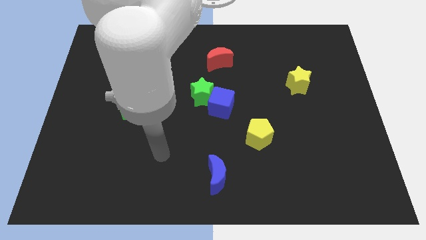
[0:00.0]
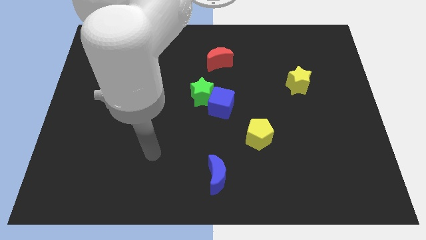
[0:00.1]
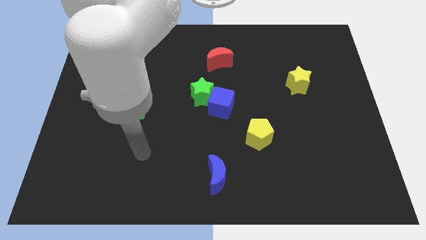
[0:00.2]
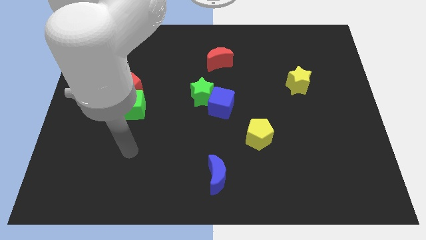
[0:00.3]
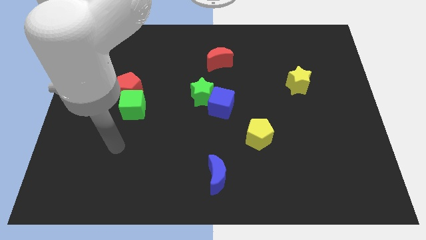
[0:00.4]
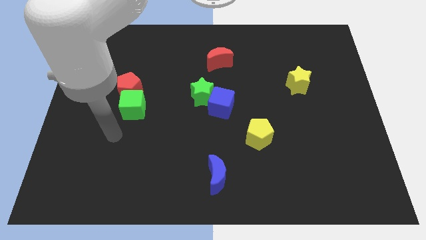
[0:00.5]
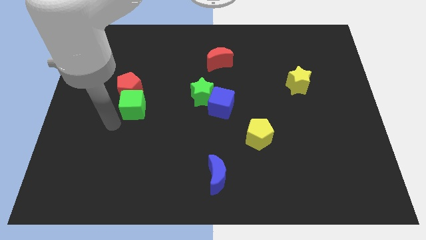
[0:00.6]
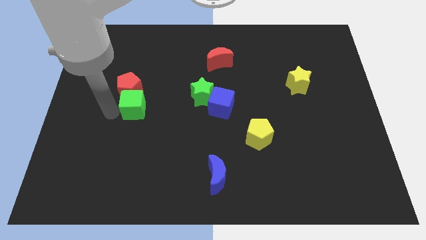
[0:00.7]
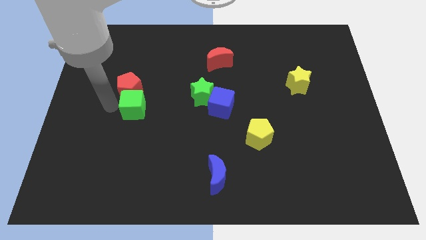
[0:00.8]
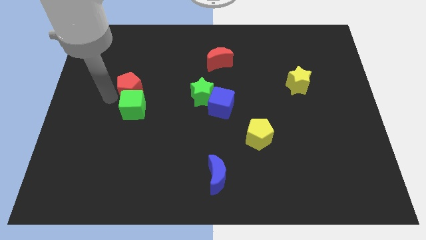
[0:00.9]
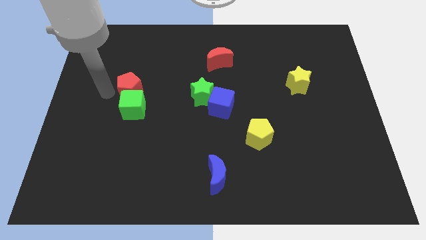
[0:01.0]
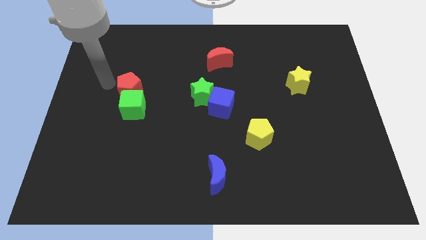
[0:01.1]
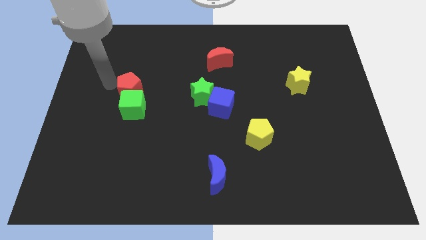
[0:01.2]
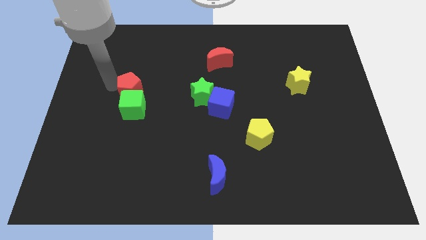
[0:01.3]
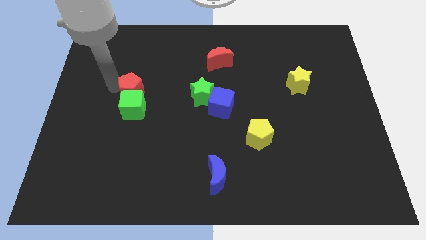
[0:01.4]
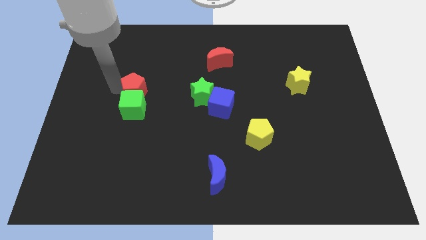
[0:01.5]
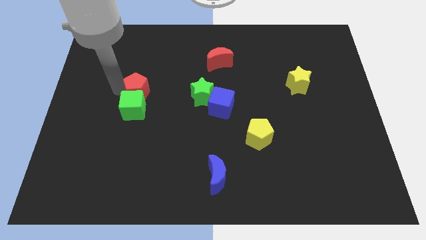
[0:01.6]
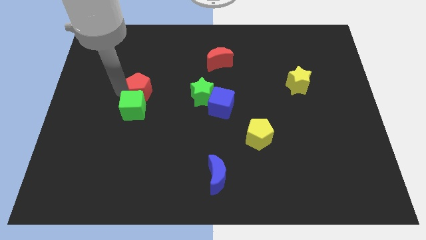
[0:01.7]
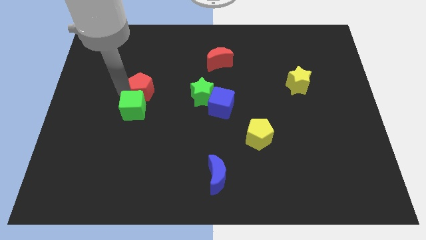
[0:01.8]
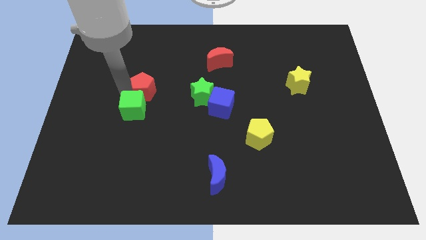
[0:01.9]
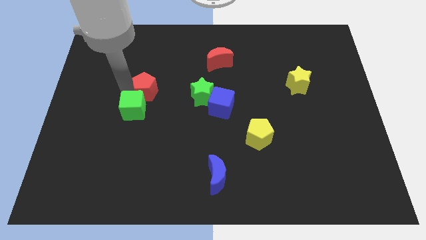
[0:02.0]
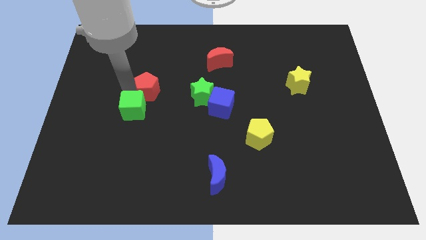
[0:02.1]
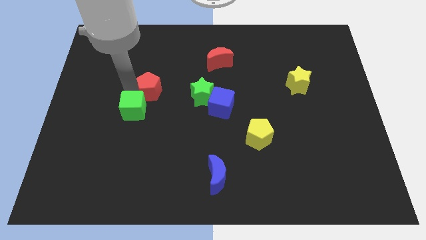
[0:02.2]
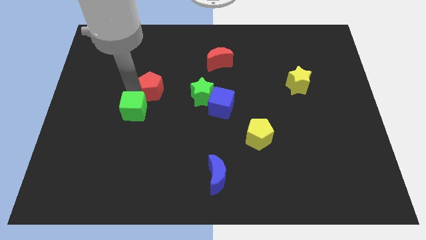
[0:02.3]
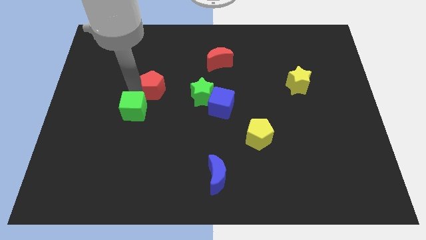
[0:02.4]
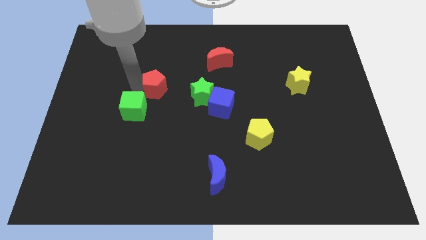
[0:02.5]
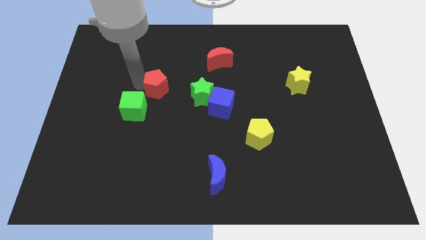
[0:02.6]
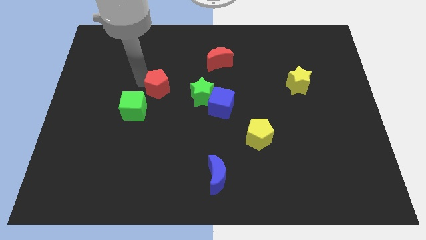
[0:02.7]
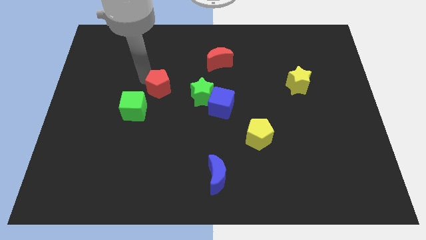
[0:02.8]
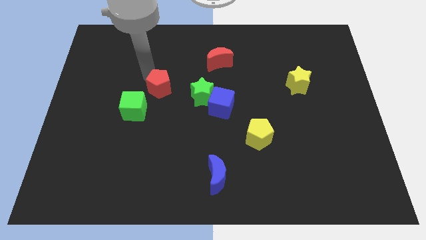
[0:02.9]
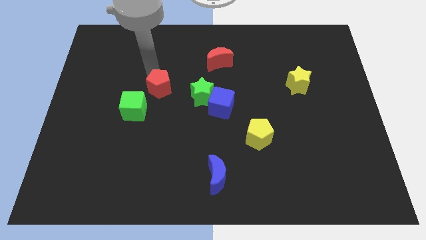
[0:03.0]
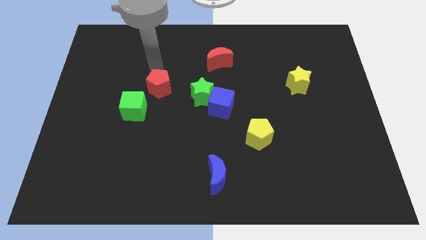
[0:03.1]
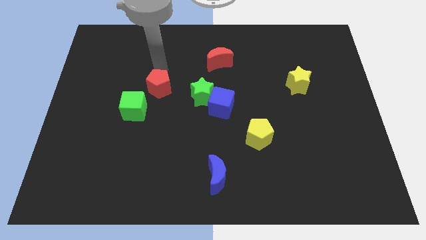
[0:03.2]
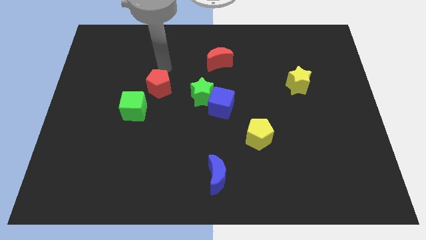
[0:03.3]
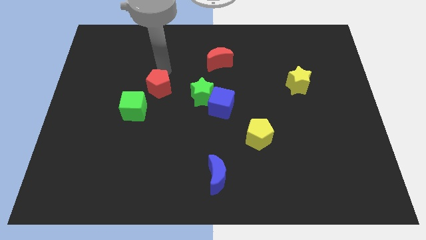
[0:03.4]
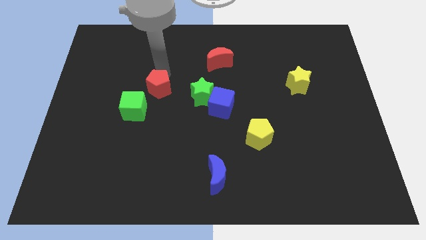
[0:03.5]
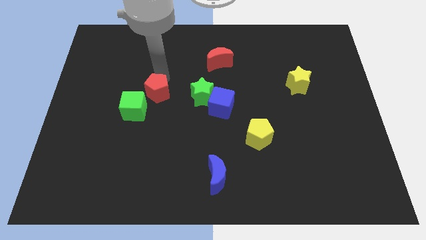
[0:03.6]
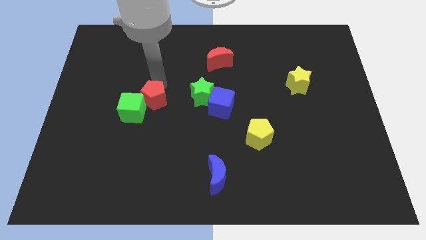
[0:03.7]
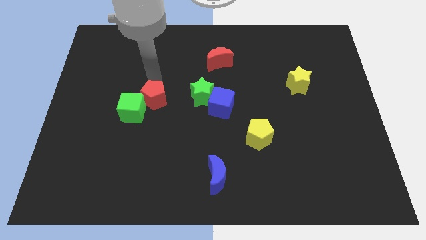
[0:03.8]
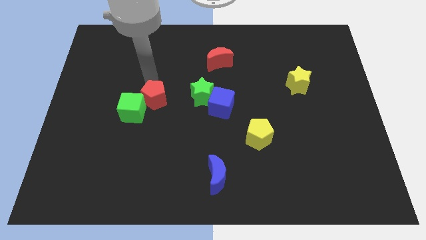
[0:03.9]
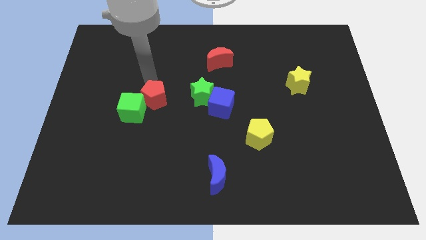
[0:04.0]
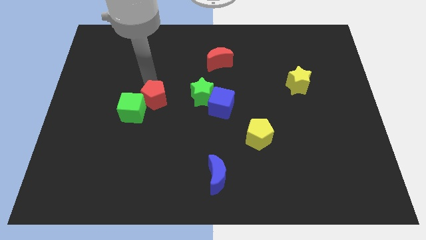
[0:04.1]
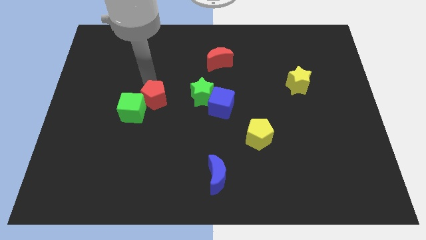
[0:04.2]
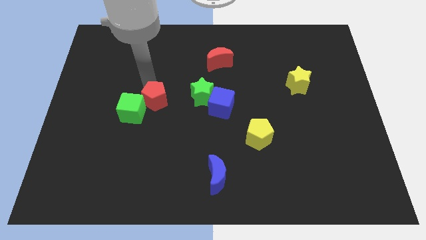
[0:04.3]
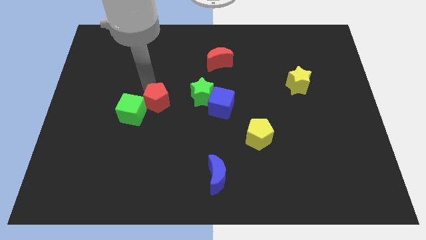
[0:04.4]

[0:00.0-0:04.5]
slide the red pentagon downwards and right diagonally a little bit

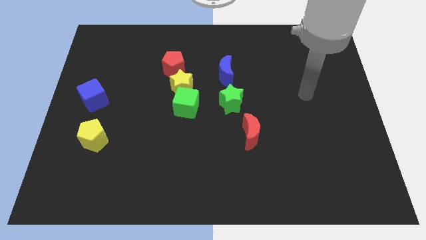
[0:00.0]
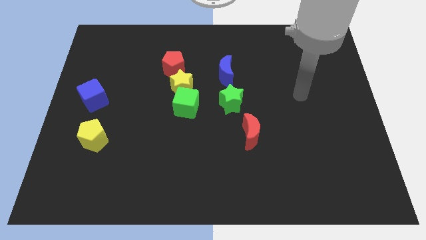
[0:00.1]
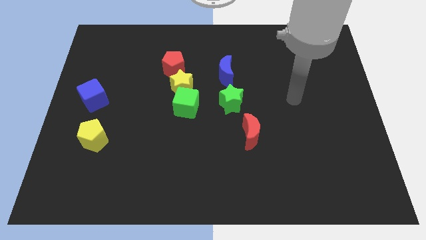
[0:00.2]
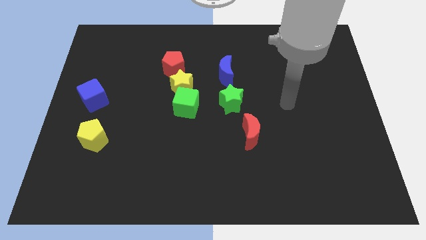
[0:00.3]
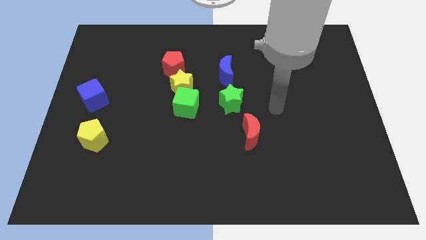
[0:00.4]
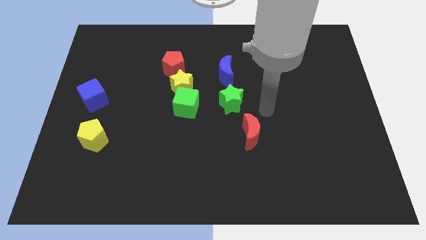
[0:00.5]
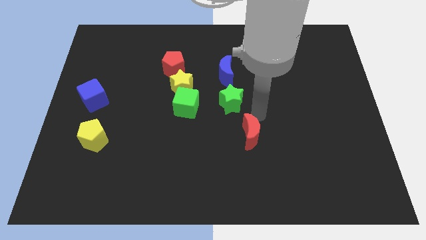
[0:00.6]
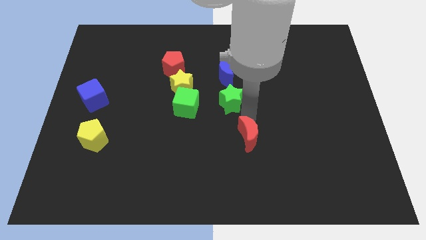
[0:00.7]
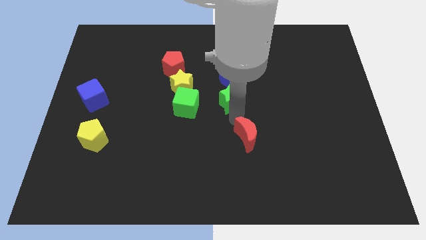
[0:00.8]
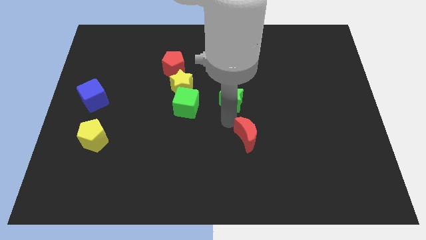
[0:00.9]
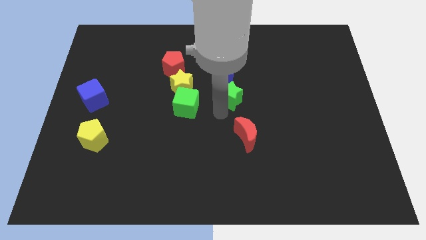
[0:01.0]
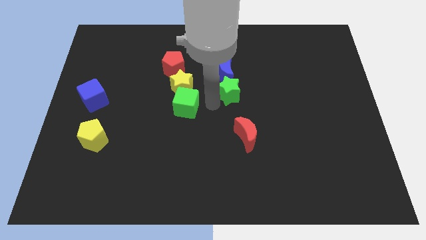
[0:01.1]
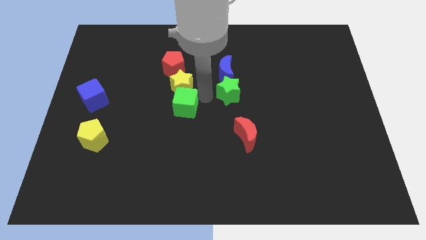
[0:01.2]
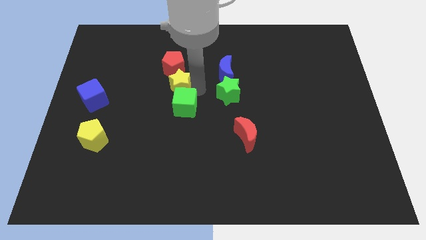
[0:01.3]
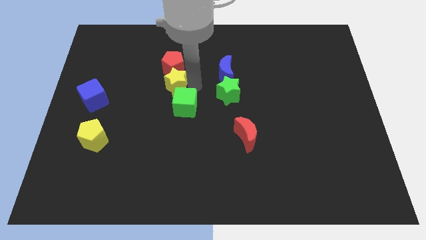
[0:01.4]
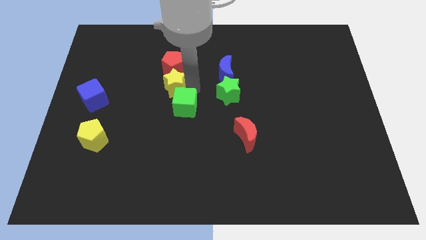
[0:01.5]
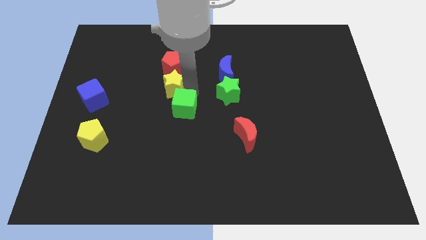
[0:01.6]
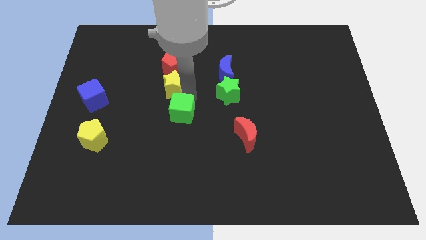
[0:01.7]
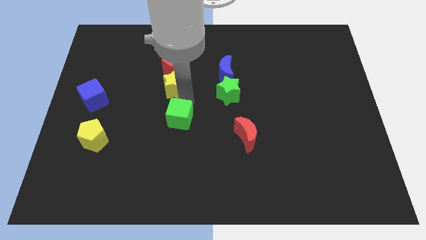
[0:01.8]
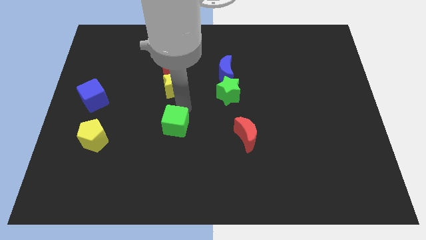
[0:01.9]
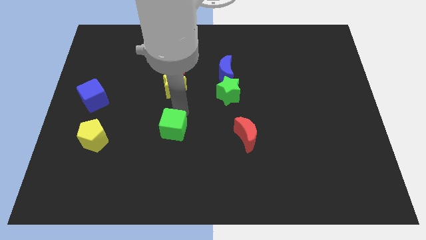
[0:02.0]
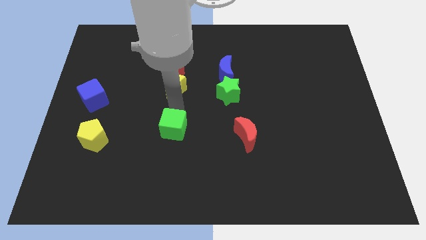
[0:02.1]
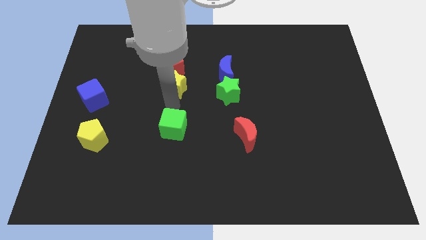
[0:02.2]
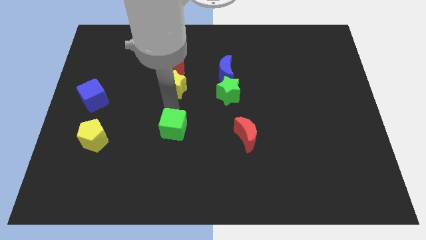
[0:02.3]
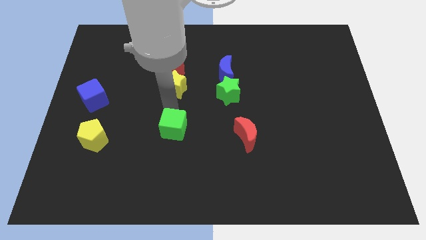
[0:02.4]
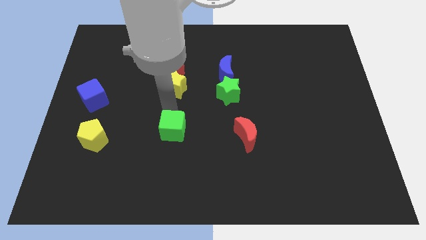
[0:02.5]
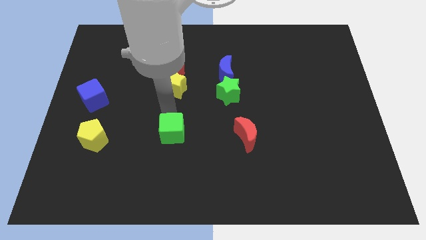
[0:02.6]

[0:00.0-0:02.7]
move the green cube a little downwards

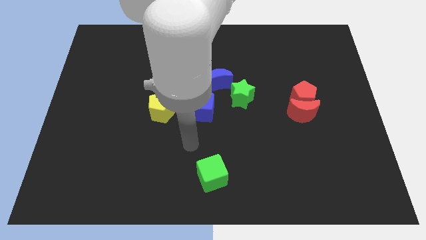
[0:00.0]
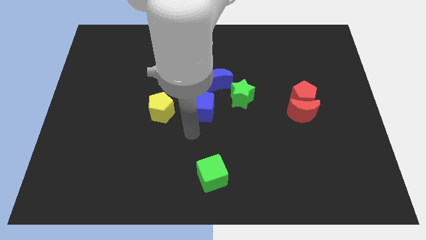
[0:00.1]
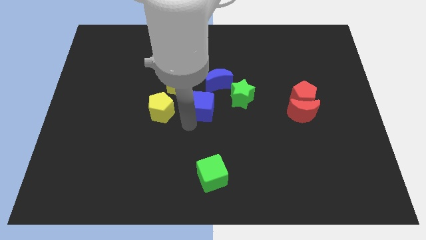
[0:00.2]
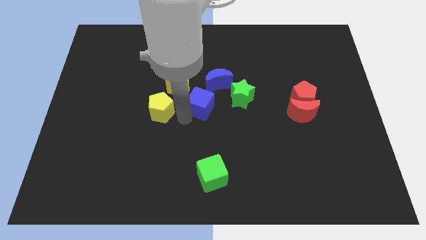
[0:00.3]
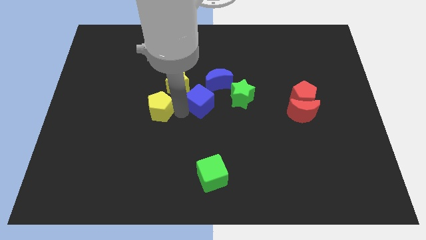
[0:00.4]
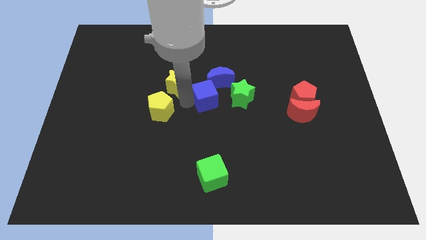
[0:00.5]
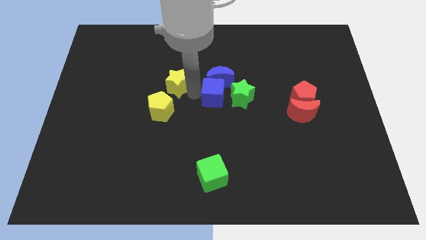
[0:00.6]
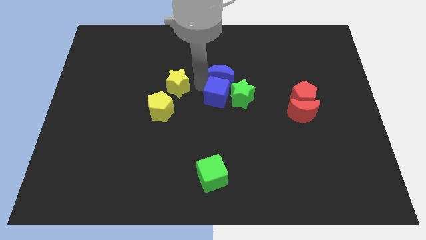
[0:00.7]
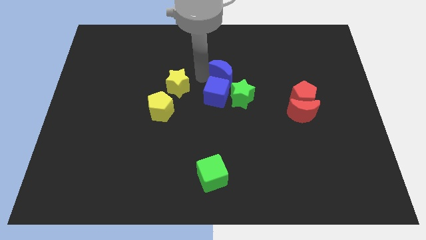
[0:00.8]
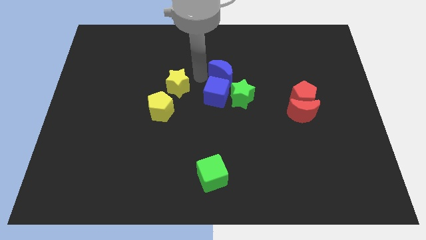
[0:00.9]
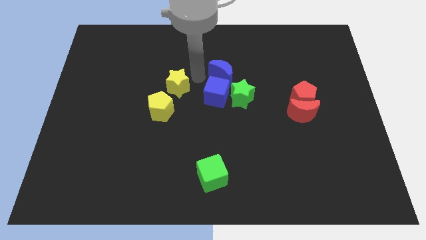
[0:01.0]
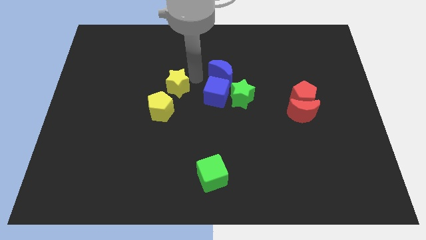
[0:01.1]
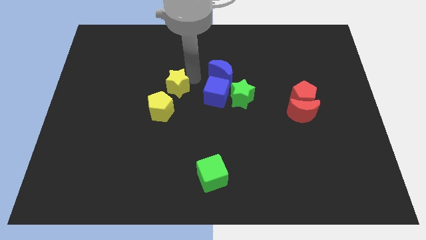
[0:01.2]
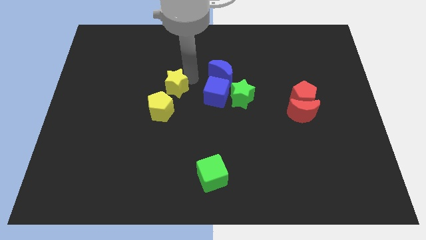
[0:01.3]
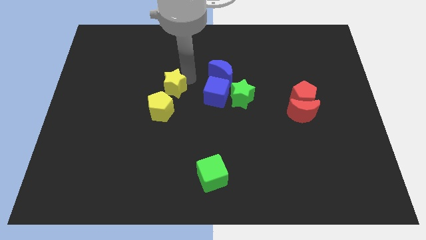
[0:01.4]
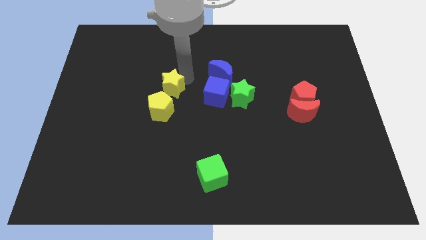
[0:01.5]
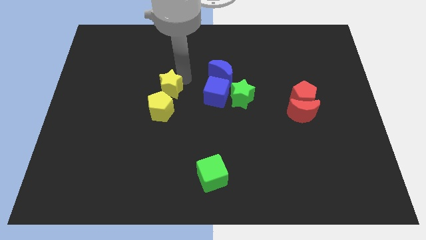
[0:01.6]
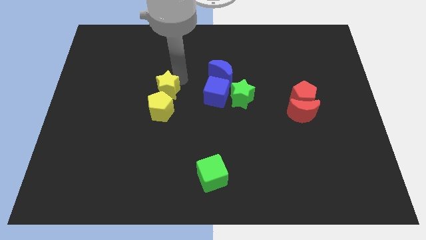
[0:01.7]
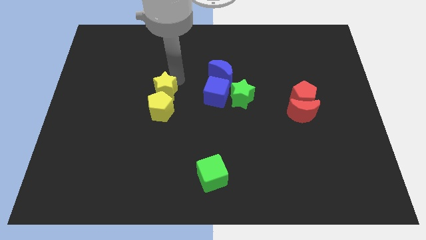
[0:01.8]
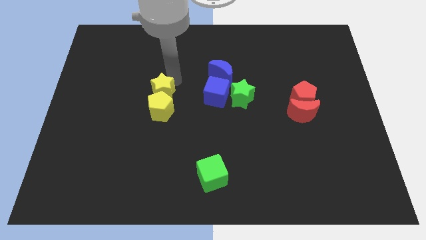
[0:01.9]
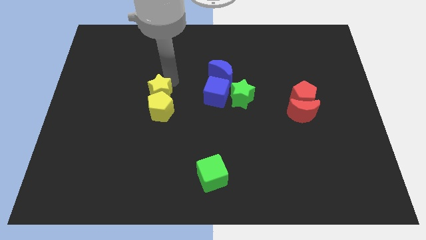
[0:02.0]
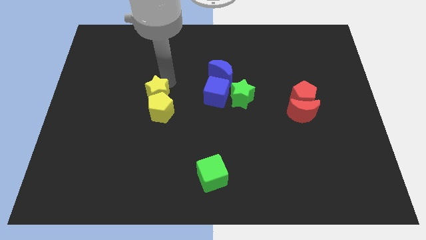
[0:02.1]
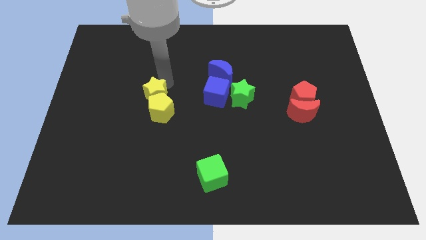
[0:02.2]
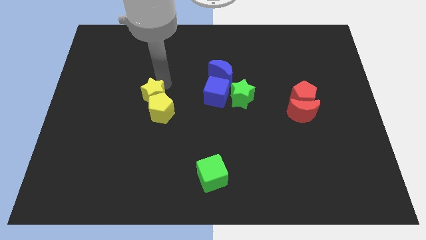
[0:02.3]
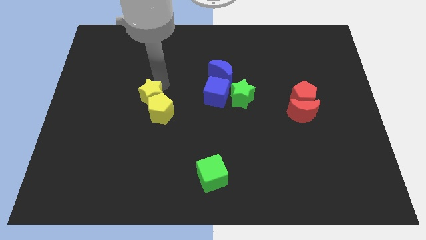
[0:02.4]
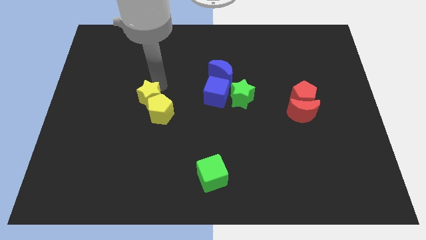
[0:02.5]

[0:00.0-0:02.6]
slightly move the yellow star down and left diagonally
